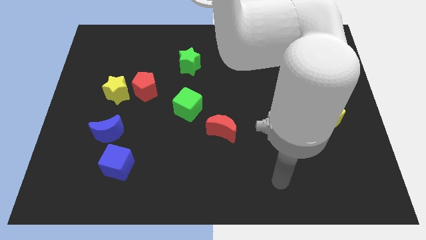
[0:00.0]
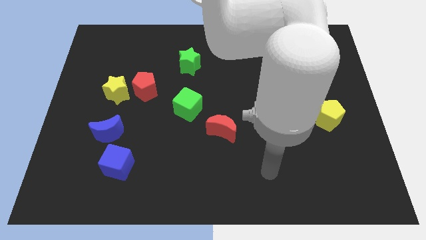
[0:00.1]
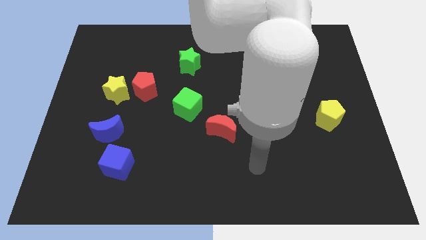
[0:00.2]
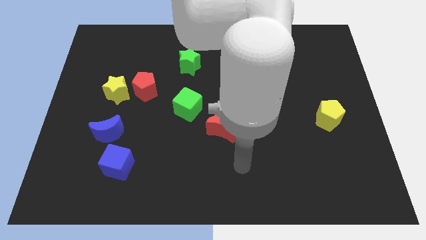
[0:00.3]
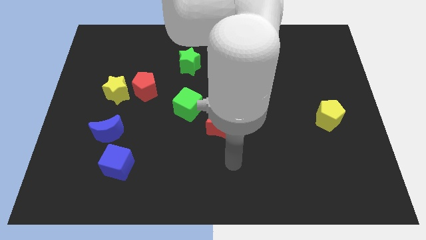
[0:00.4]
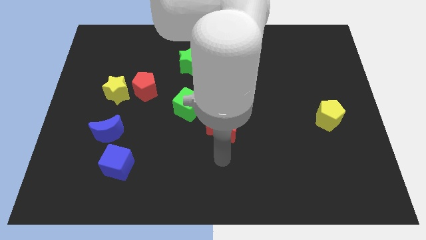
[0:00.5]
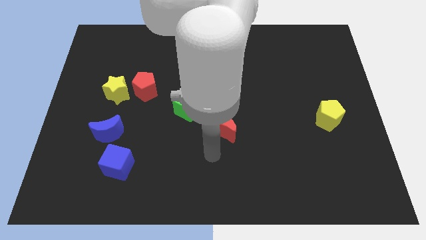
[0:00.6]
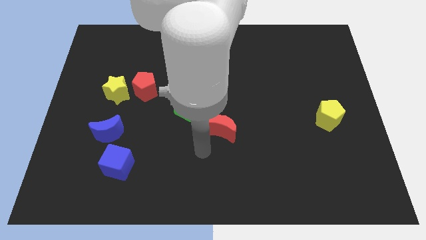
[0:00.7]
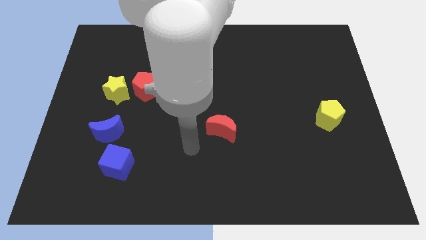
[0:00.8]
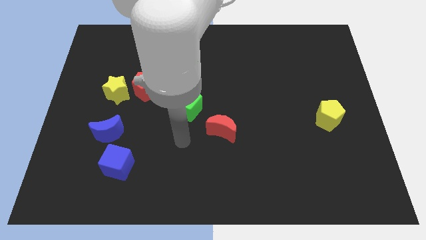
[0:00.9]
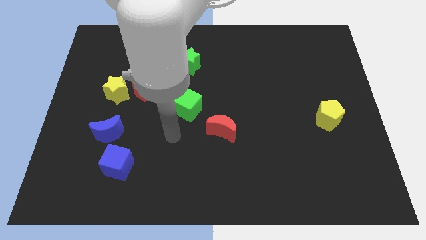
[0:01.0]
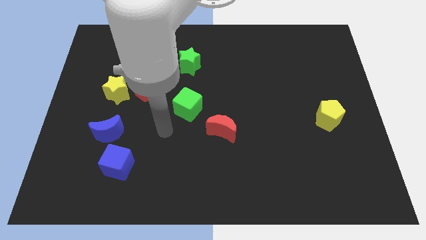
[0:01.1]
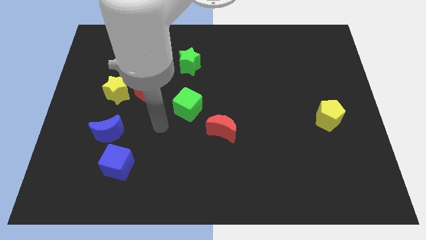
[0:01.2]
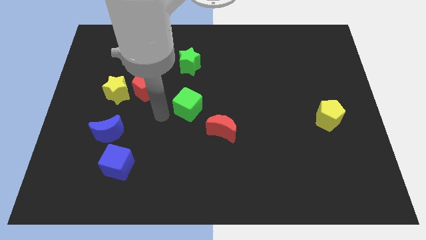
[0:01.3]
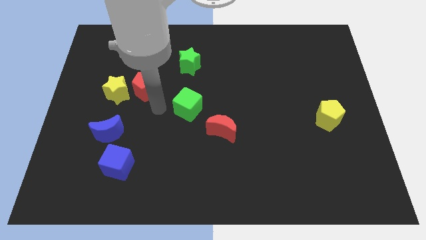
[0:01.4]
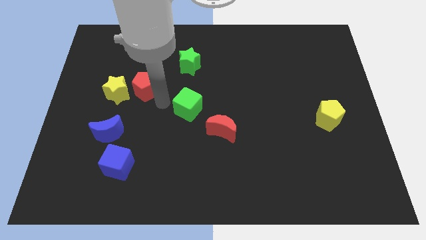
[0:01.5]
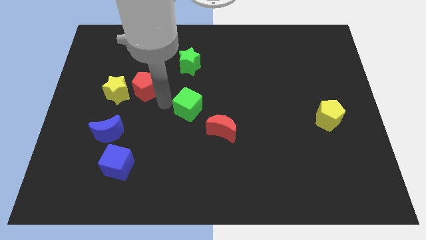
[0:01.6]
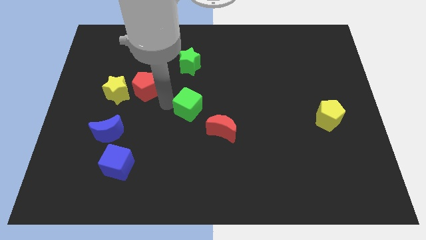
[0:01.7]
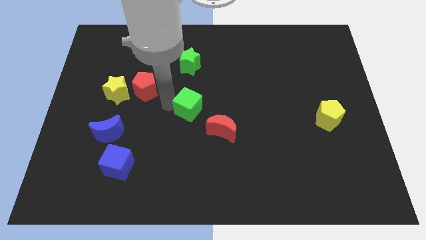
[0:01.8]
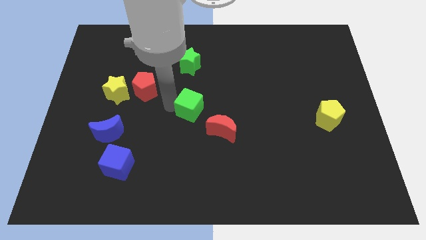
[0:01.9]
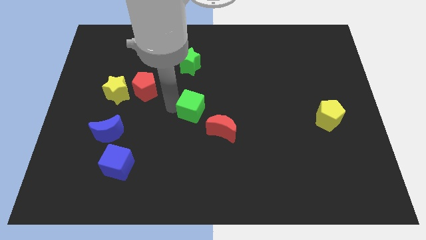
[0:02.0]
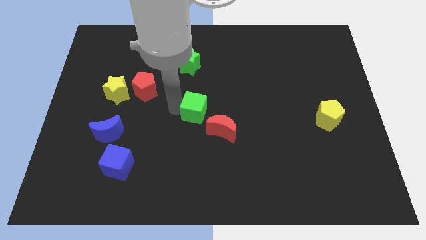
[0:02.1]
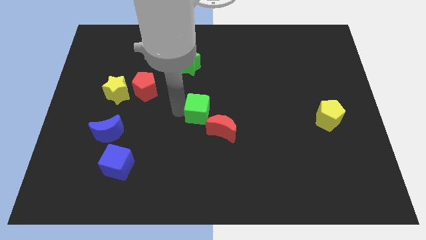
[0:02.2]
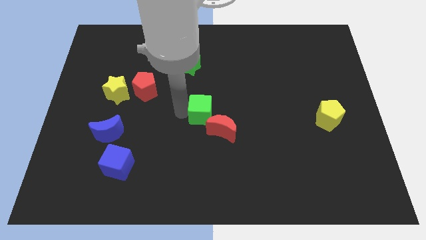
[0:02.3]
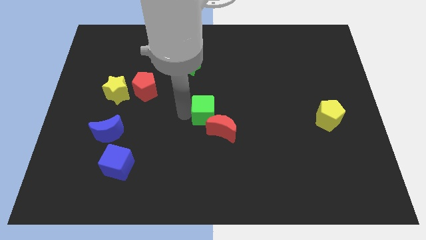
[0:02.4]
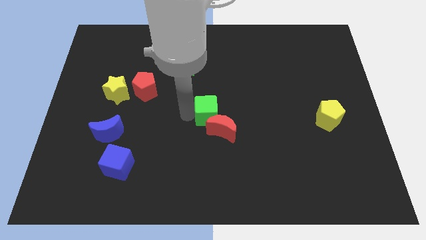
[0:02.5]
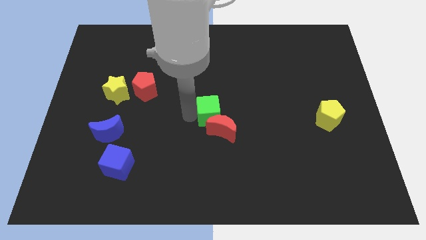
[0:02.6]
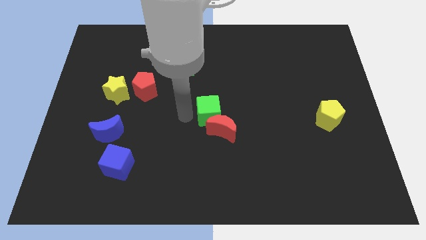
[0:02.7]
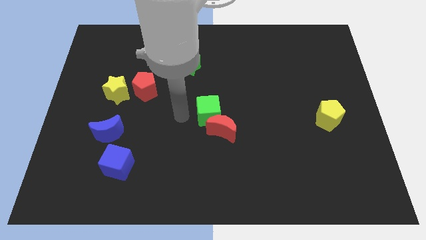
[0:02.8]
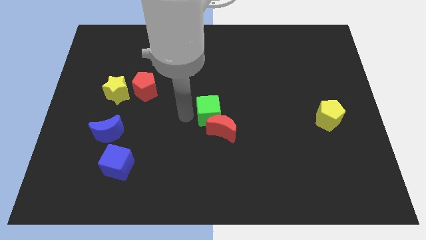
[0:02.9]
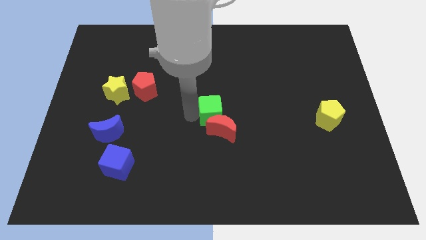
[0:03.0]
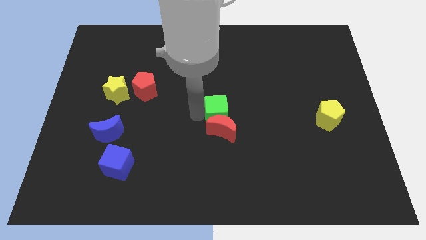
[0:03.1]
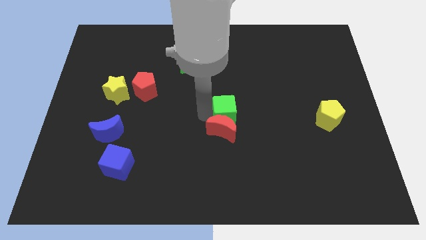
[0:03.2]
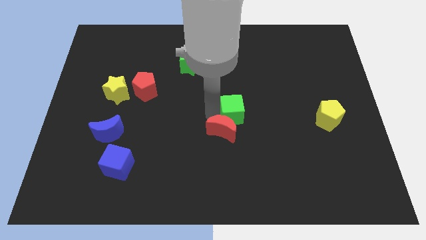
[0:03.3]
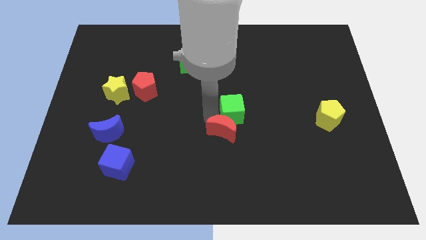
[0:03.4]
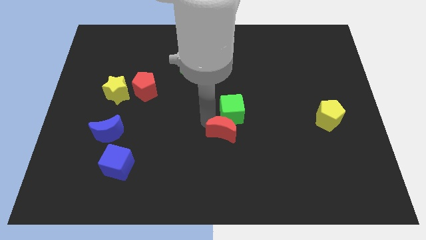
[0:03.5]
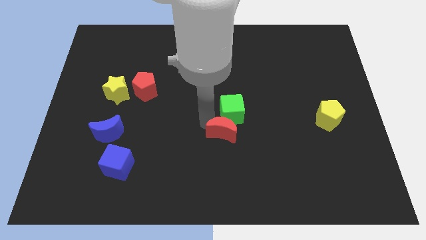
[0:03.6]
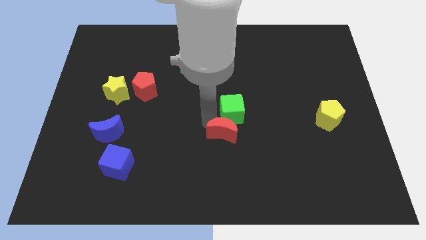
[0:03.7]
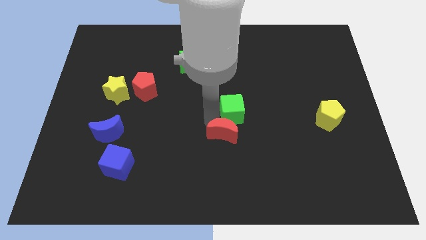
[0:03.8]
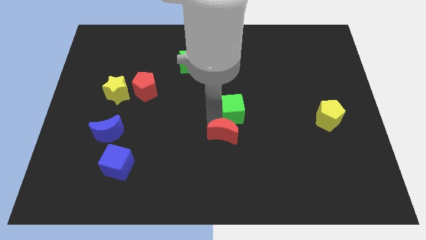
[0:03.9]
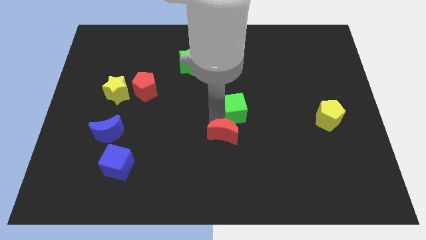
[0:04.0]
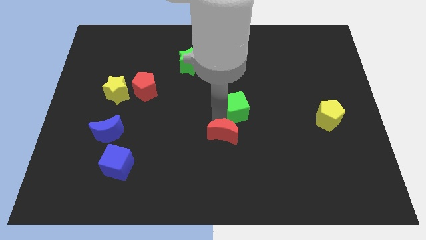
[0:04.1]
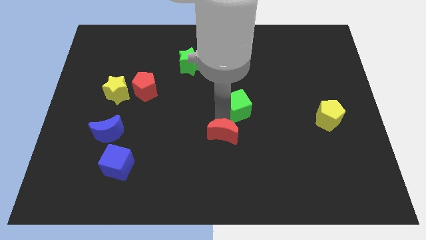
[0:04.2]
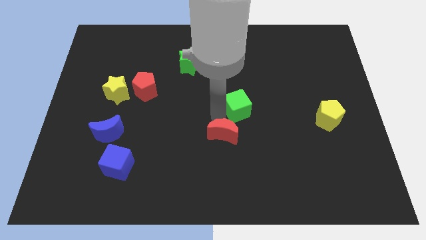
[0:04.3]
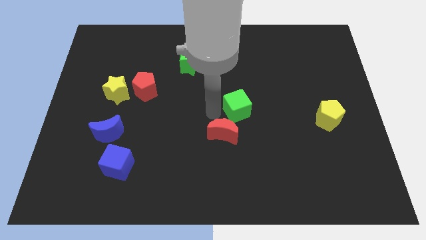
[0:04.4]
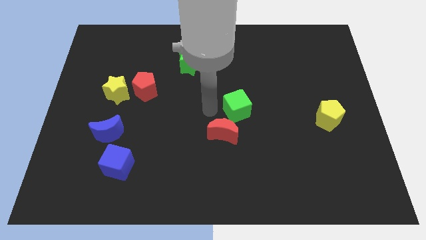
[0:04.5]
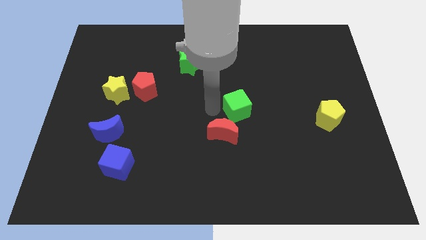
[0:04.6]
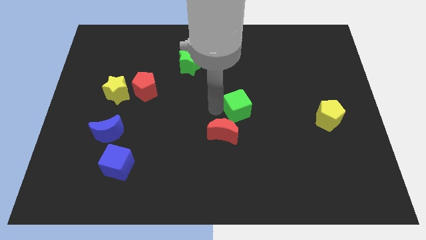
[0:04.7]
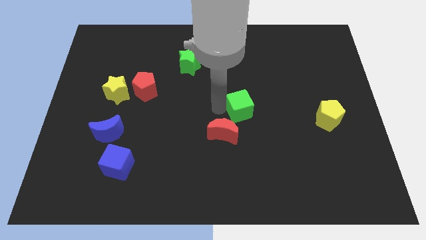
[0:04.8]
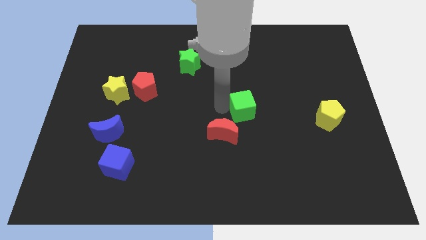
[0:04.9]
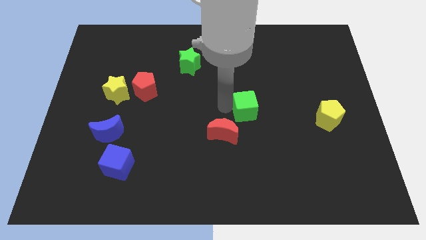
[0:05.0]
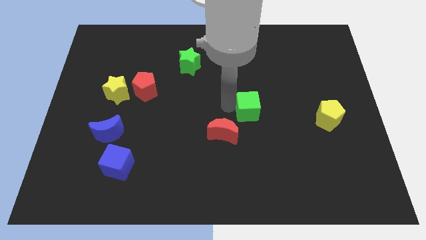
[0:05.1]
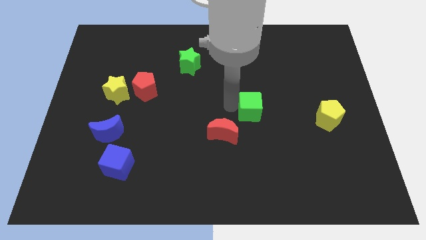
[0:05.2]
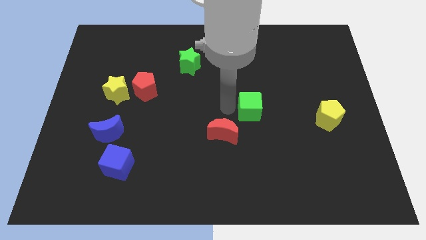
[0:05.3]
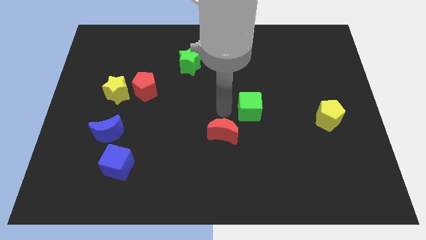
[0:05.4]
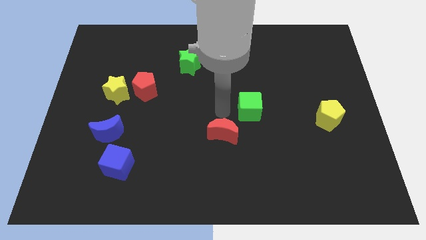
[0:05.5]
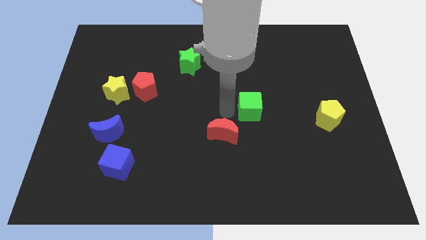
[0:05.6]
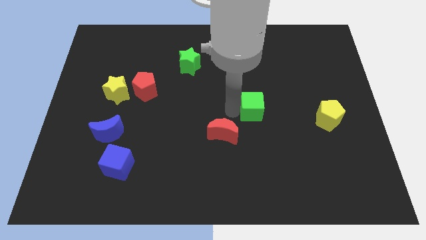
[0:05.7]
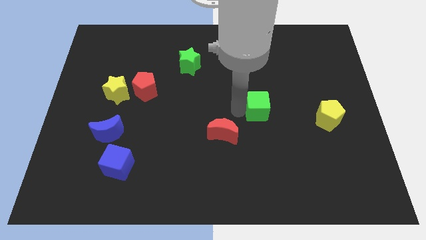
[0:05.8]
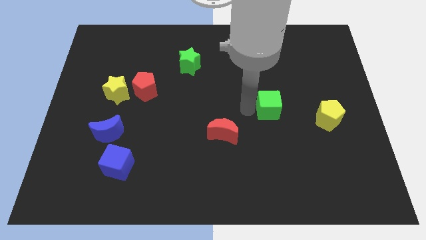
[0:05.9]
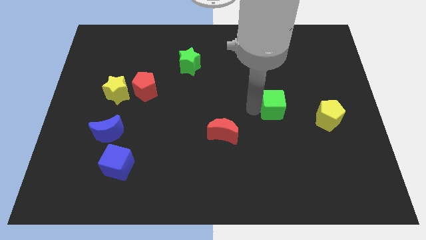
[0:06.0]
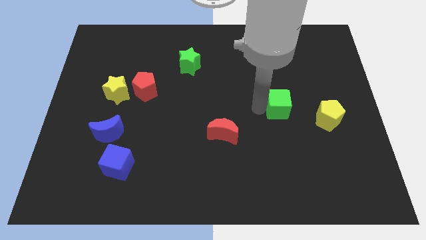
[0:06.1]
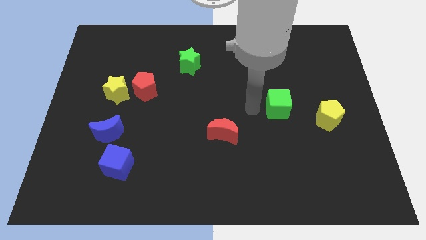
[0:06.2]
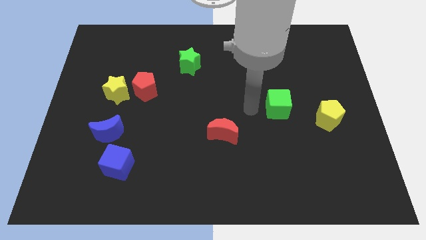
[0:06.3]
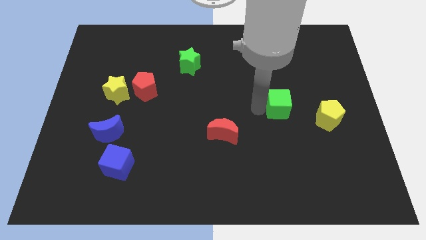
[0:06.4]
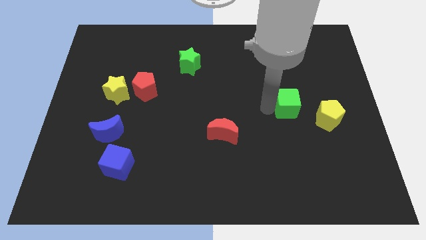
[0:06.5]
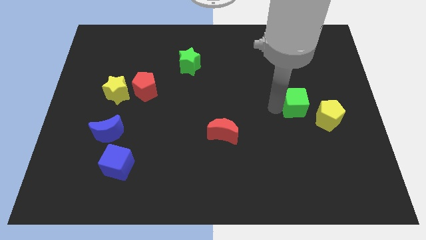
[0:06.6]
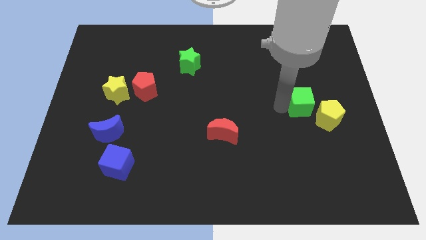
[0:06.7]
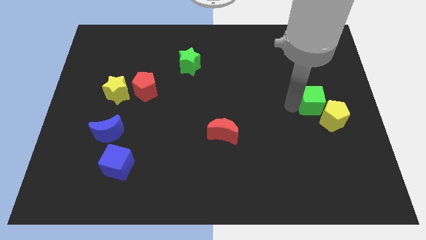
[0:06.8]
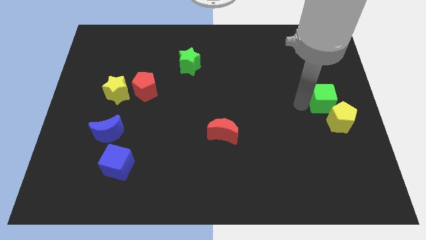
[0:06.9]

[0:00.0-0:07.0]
move the green cube to the right side of the board

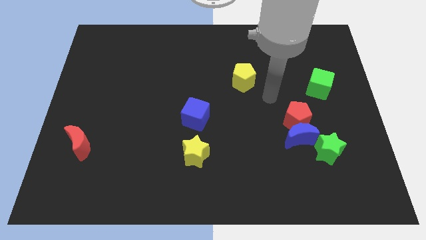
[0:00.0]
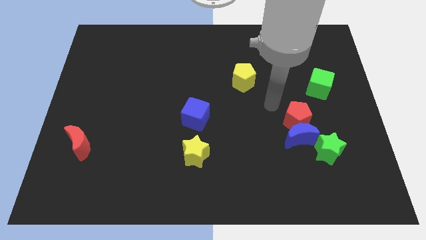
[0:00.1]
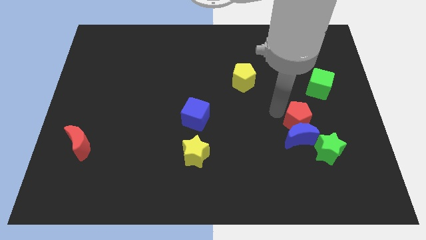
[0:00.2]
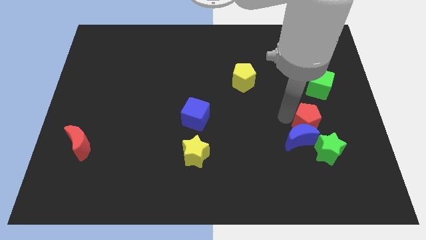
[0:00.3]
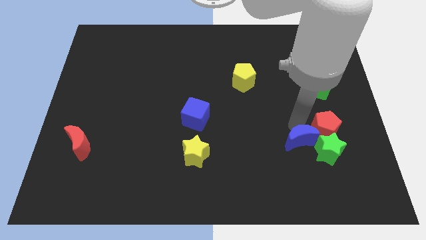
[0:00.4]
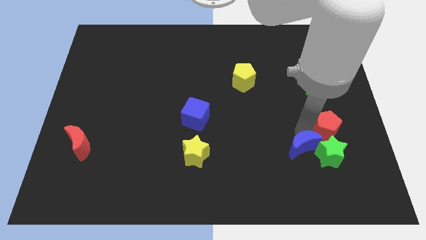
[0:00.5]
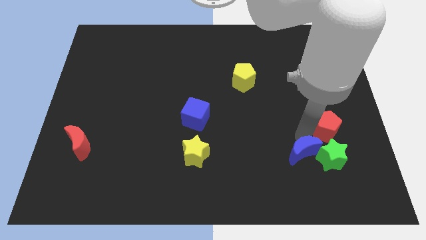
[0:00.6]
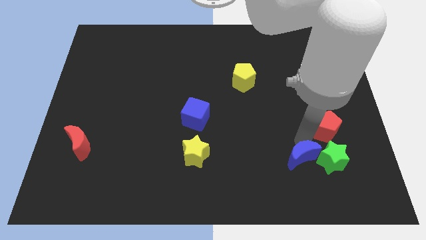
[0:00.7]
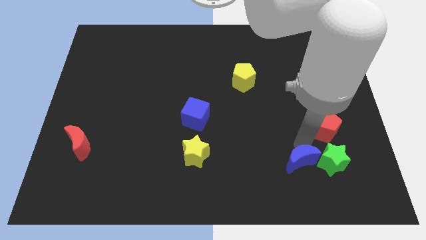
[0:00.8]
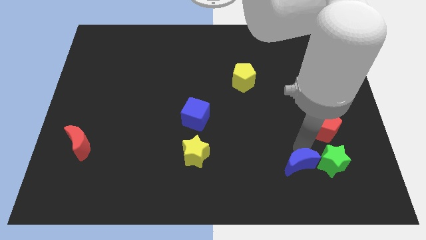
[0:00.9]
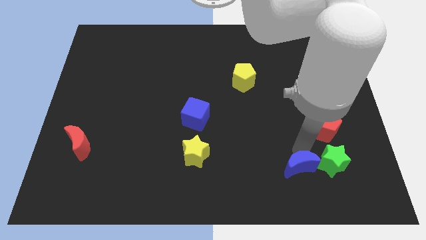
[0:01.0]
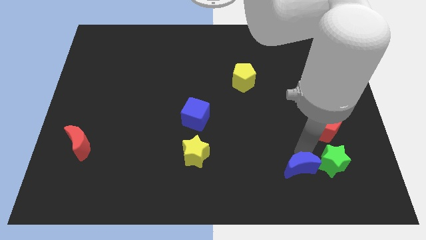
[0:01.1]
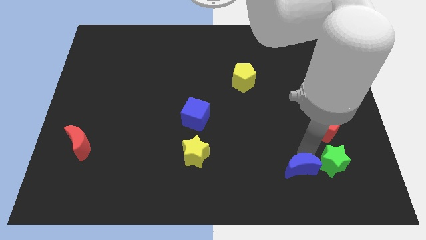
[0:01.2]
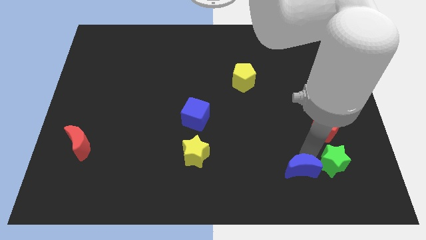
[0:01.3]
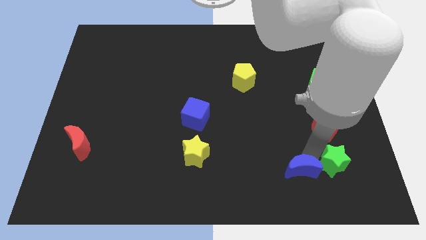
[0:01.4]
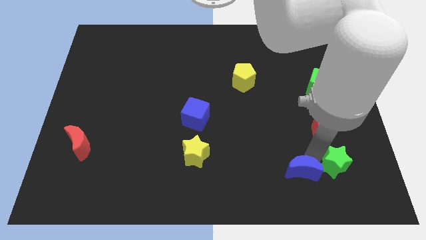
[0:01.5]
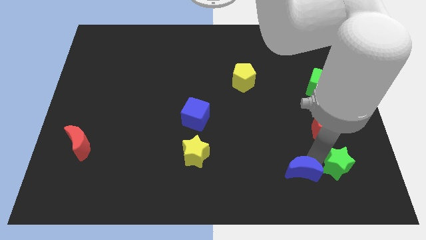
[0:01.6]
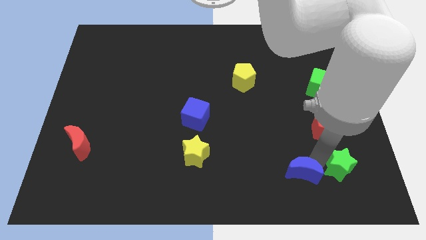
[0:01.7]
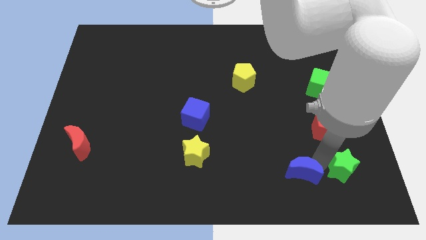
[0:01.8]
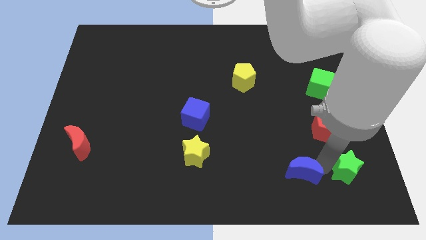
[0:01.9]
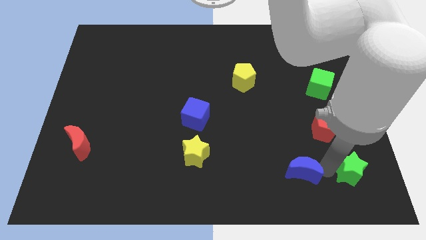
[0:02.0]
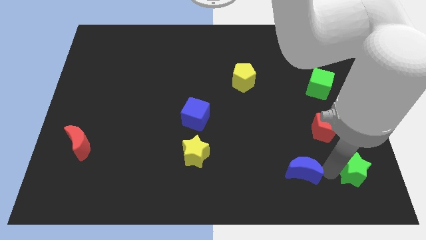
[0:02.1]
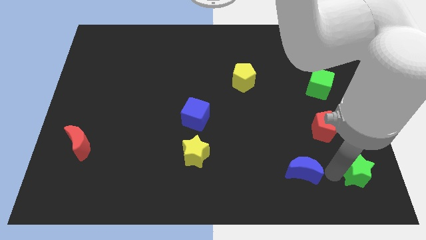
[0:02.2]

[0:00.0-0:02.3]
move the green star to the bottom right of the board
